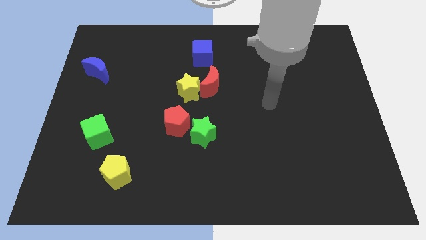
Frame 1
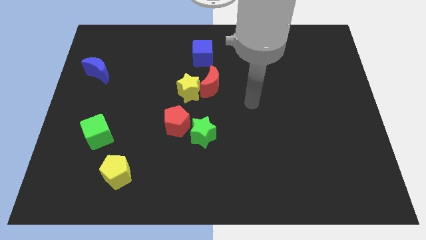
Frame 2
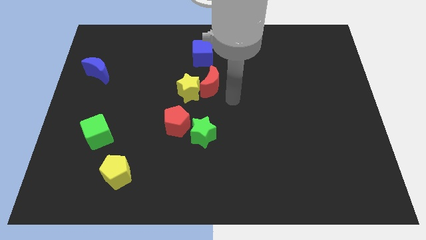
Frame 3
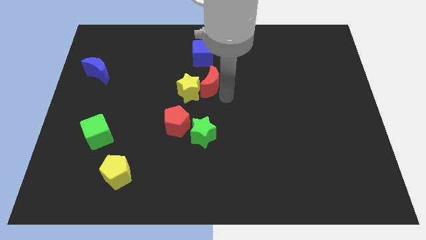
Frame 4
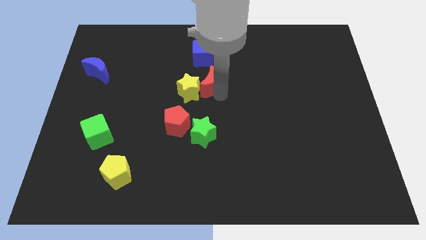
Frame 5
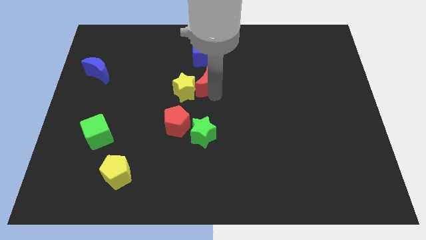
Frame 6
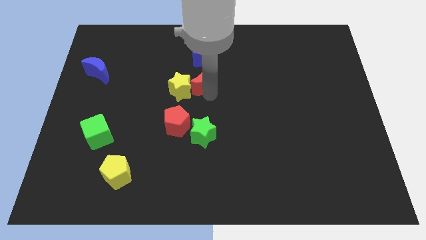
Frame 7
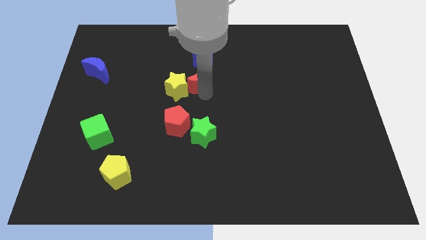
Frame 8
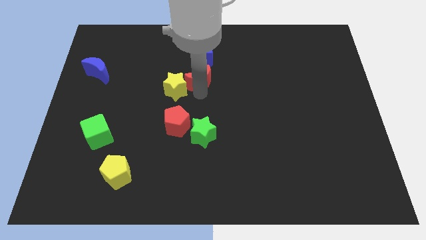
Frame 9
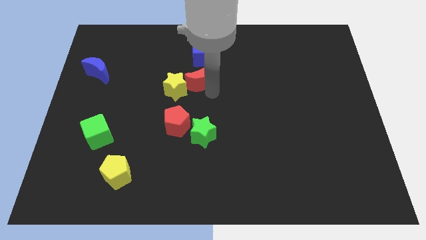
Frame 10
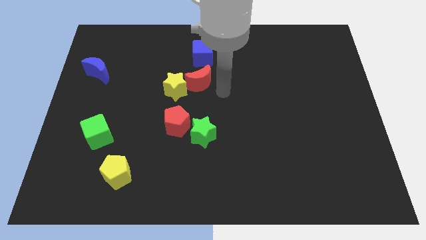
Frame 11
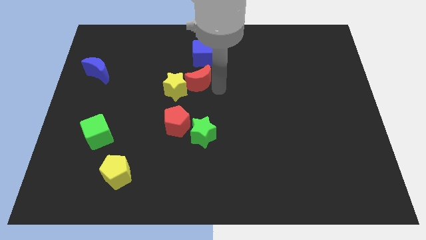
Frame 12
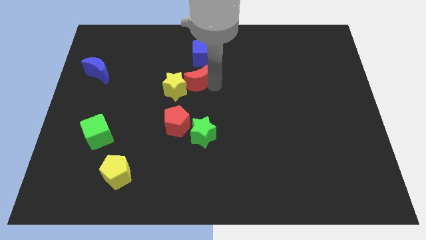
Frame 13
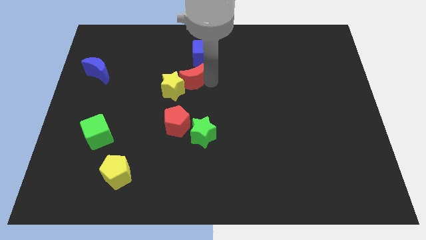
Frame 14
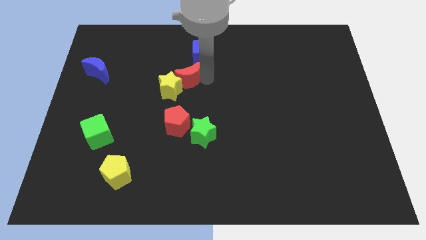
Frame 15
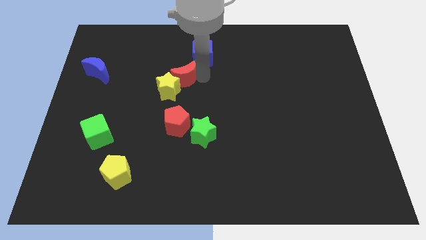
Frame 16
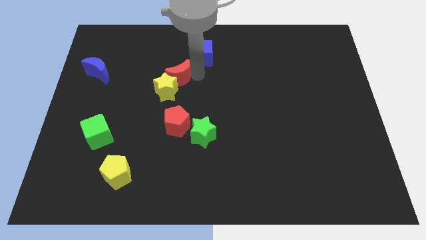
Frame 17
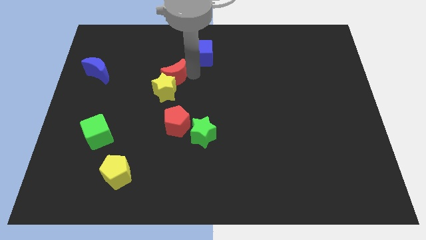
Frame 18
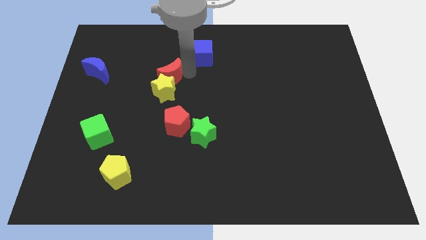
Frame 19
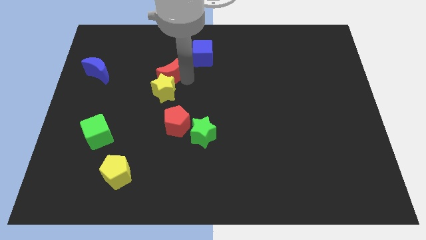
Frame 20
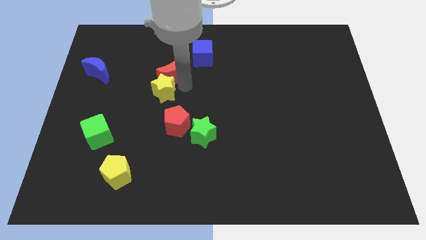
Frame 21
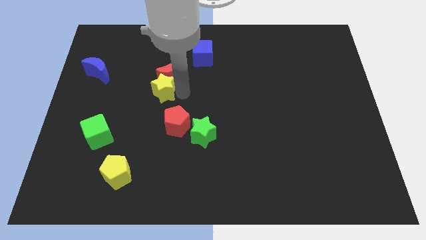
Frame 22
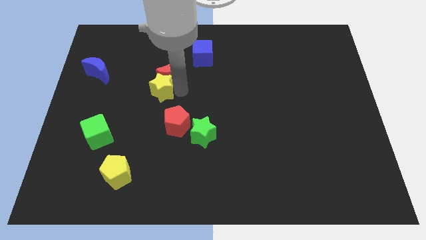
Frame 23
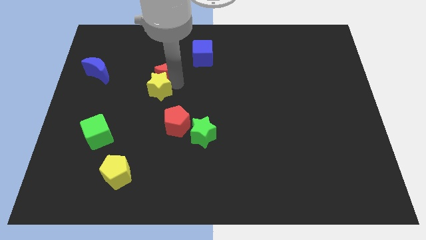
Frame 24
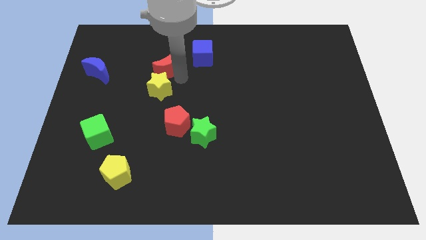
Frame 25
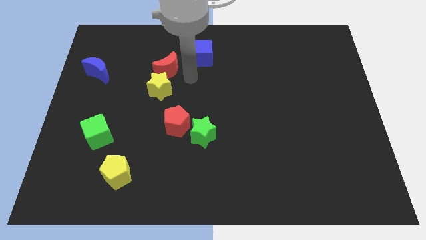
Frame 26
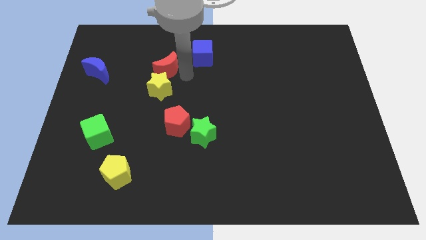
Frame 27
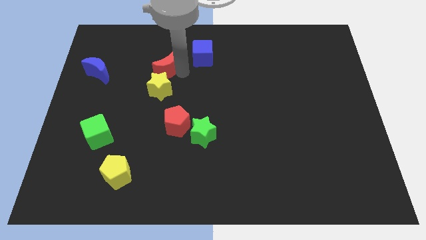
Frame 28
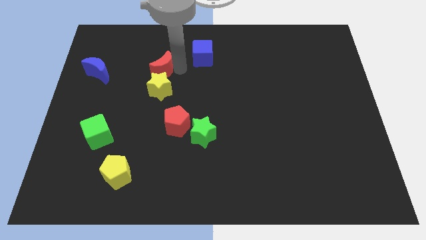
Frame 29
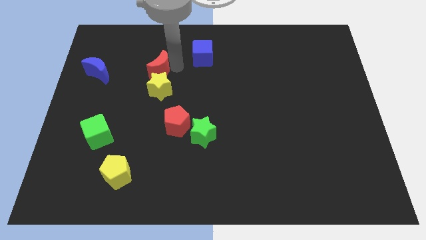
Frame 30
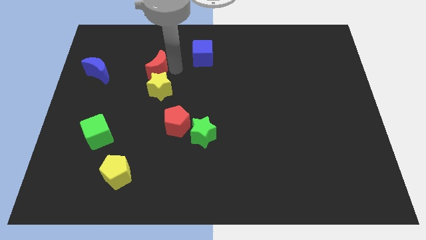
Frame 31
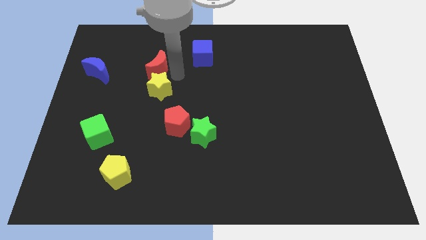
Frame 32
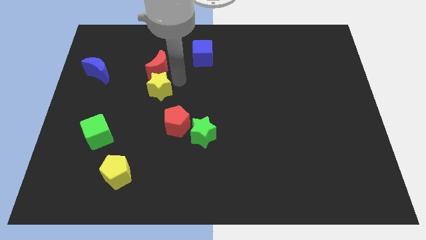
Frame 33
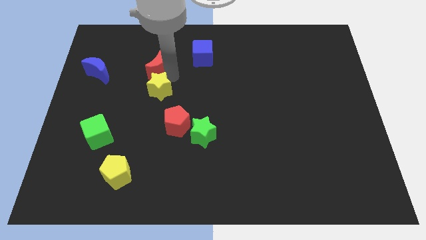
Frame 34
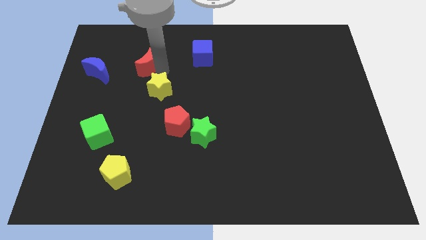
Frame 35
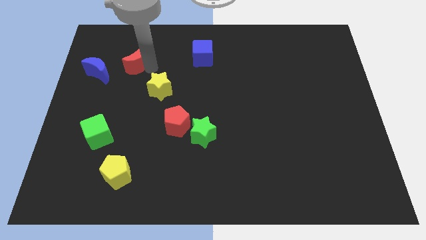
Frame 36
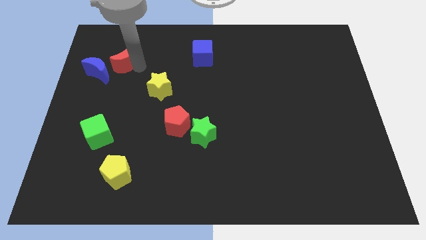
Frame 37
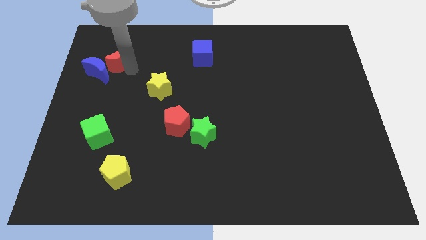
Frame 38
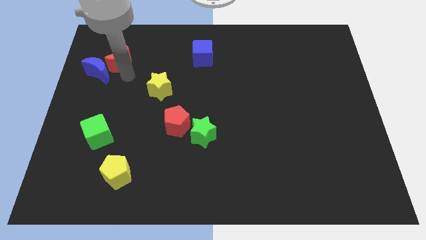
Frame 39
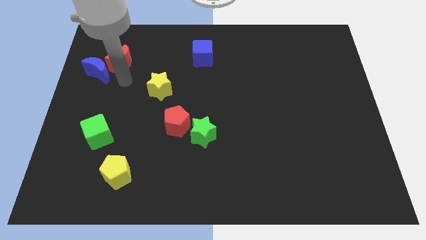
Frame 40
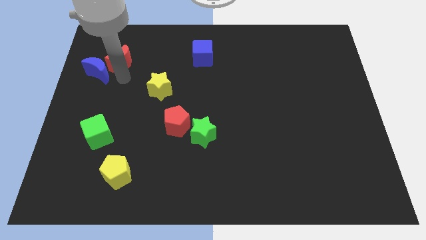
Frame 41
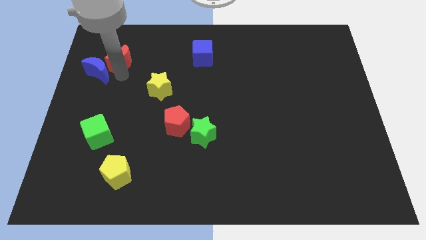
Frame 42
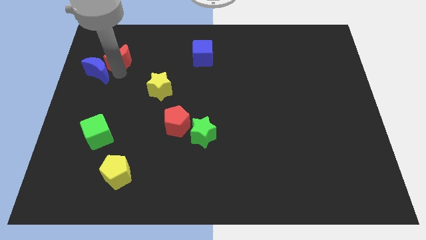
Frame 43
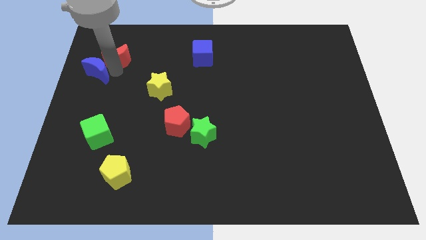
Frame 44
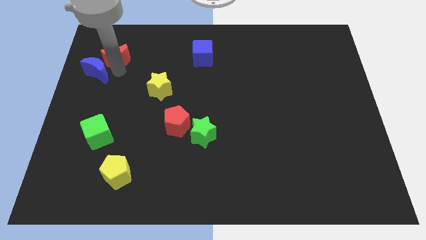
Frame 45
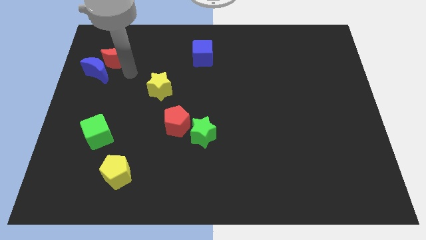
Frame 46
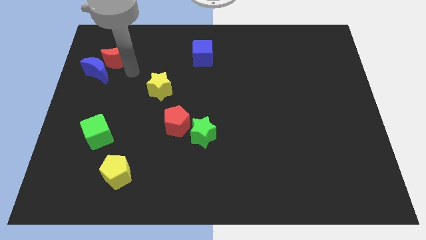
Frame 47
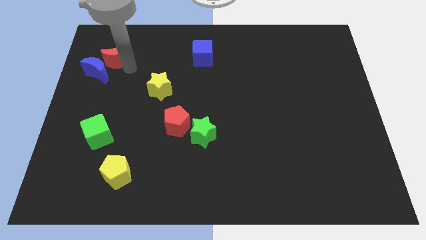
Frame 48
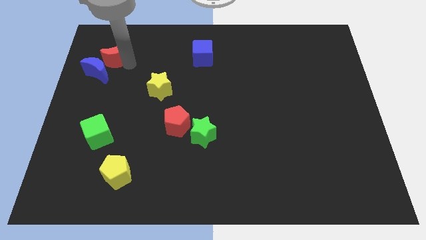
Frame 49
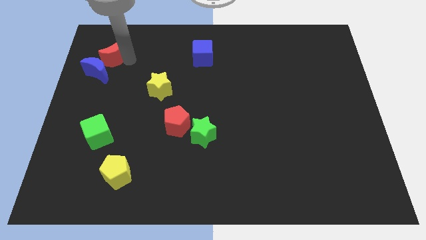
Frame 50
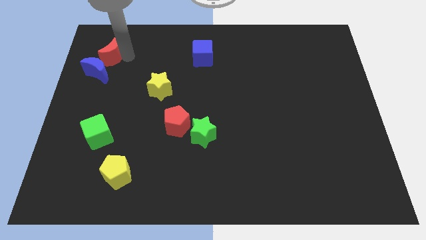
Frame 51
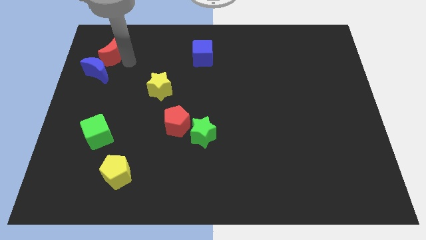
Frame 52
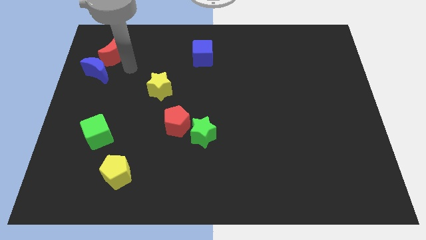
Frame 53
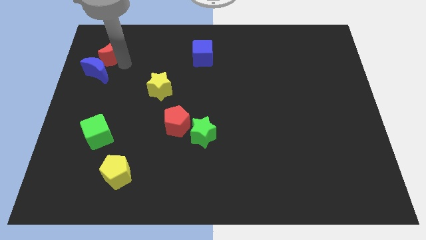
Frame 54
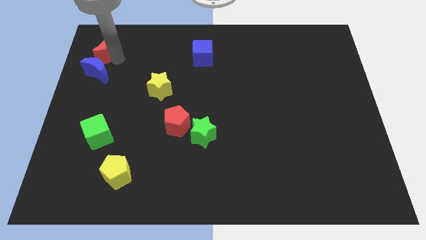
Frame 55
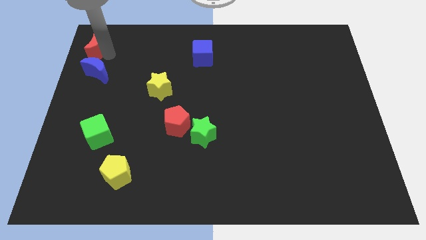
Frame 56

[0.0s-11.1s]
move the red moon to the upper left corner
